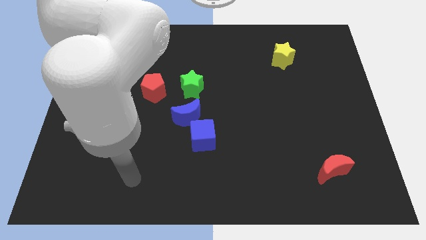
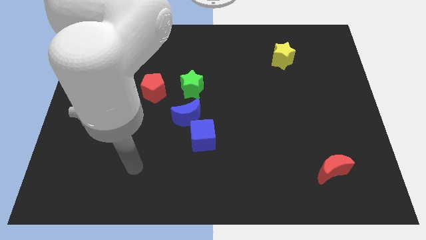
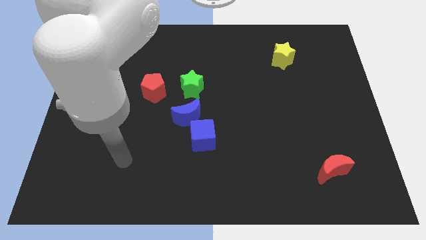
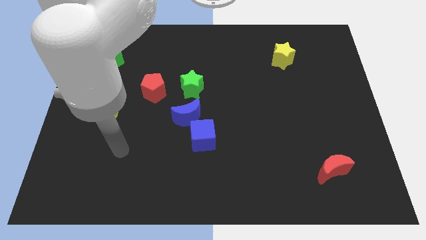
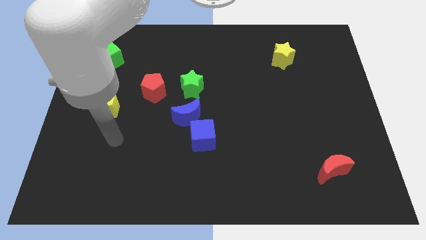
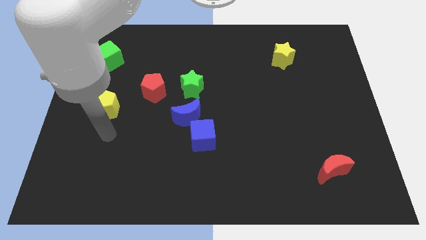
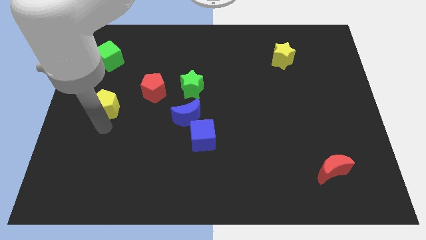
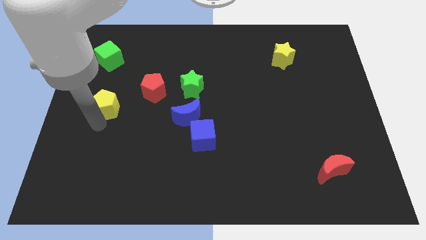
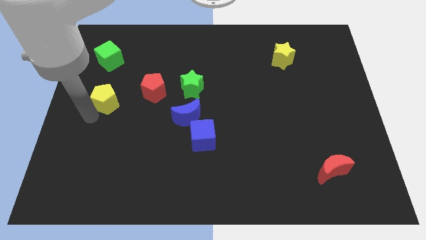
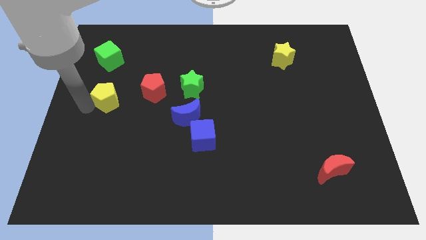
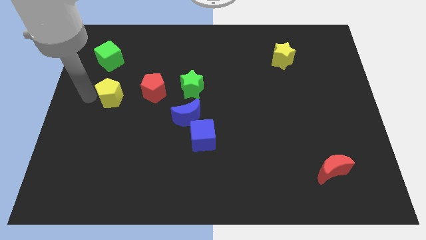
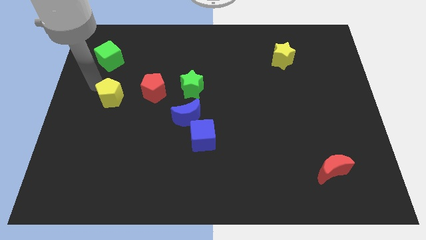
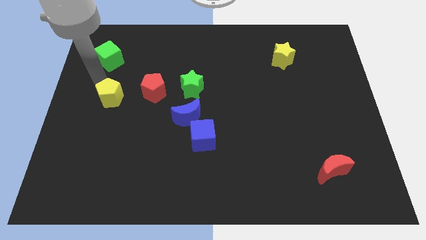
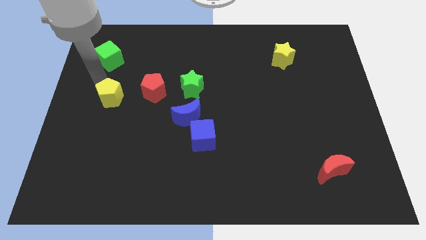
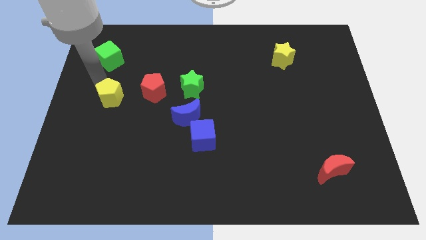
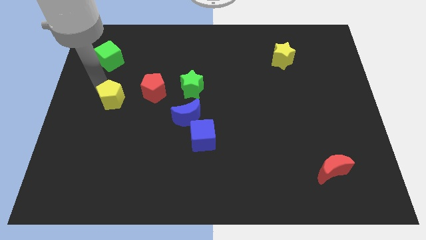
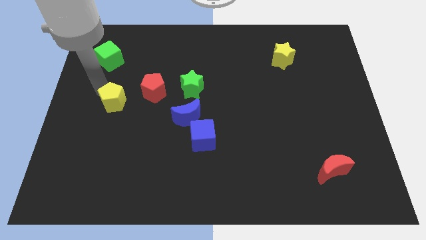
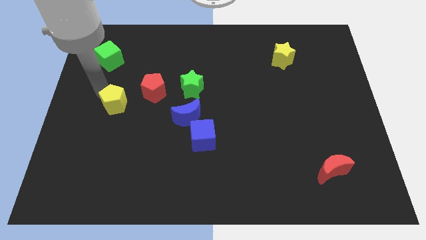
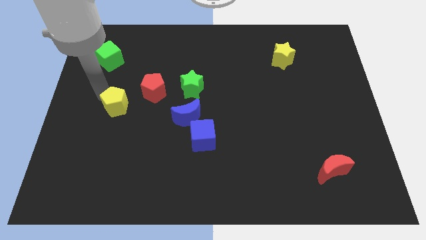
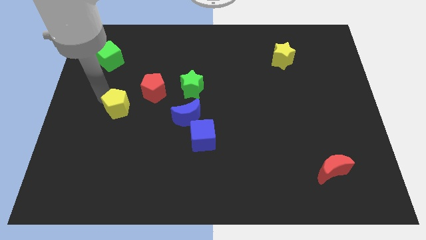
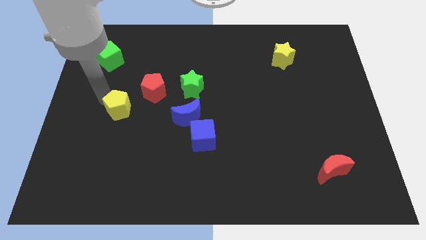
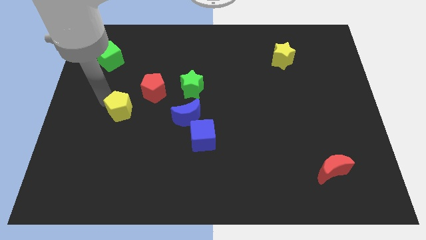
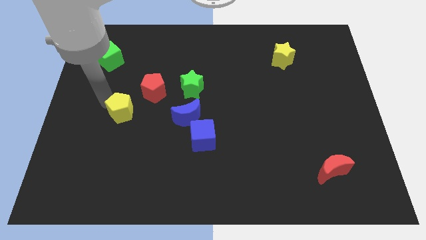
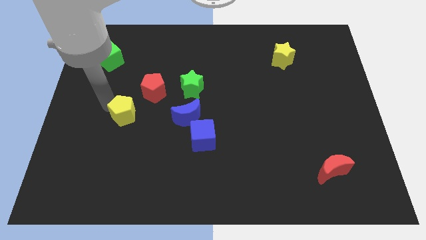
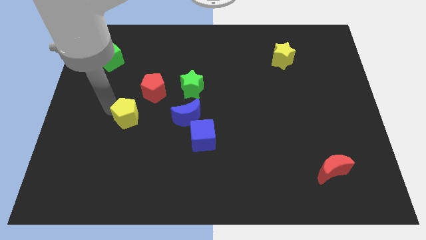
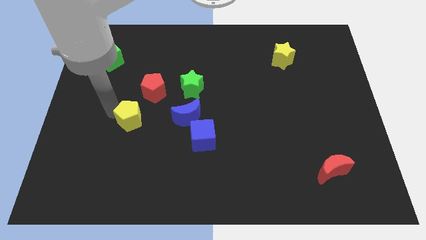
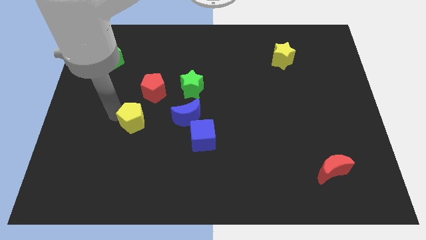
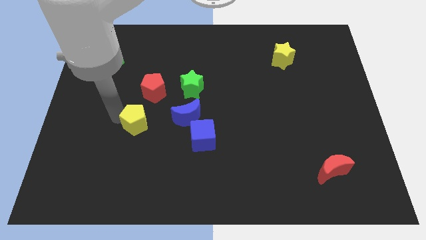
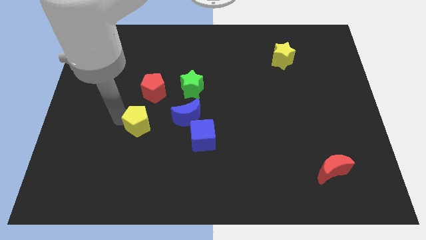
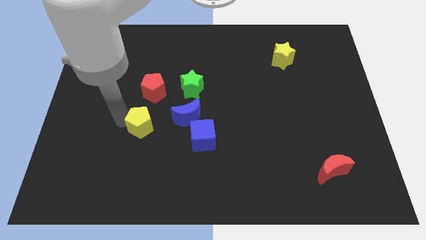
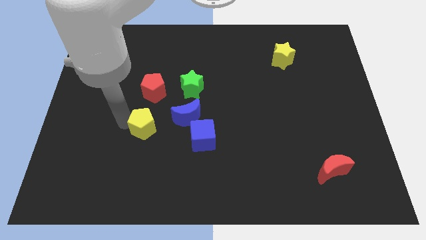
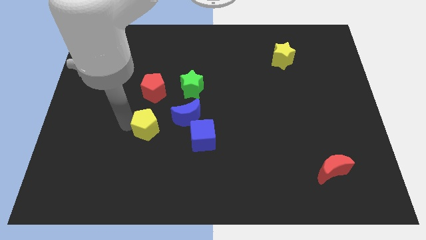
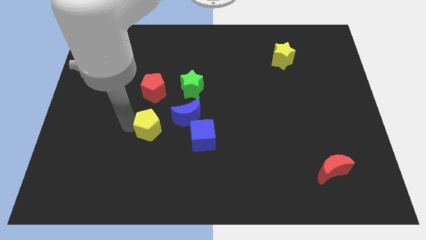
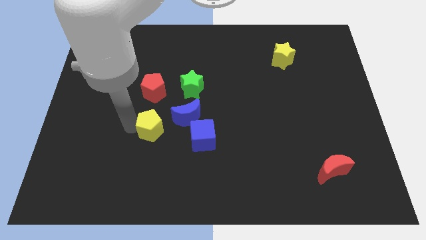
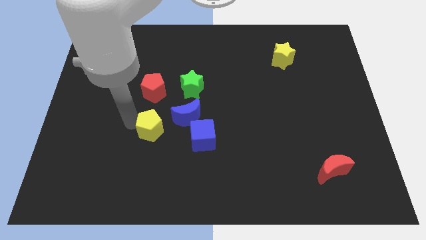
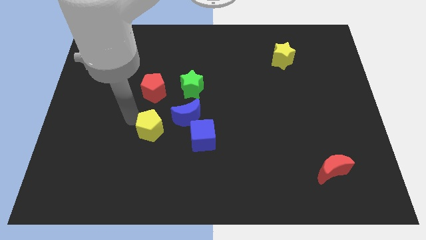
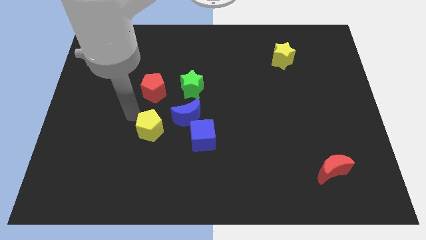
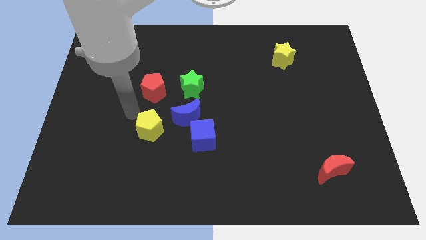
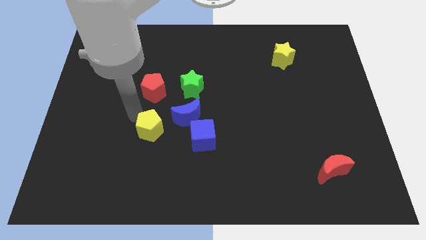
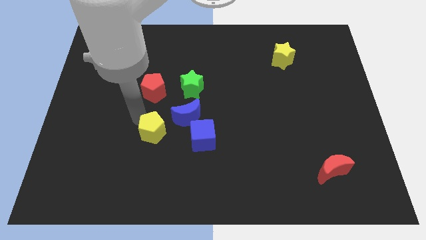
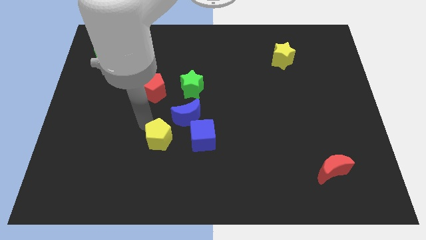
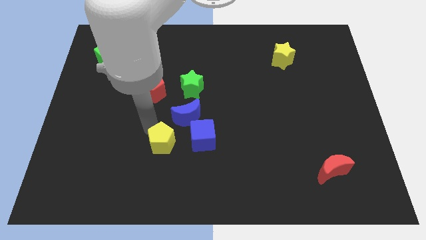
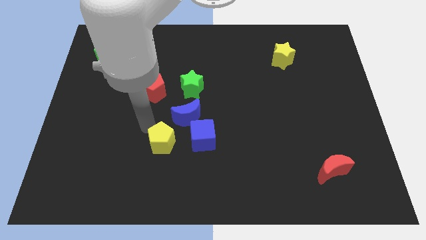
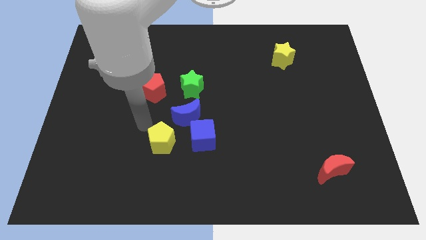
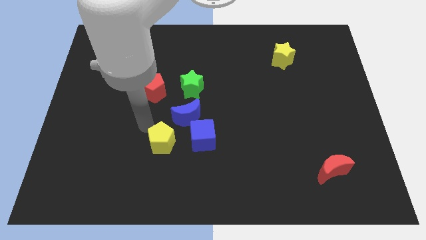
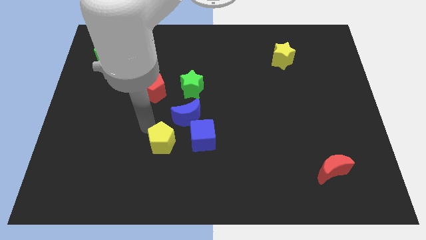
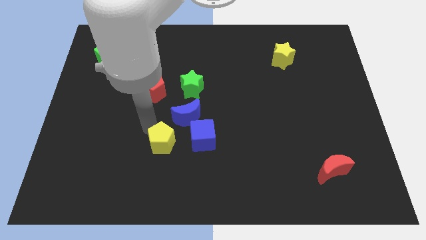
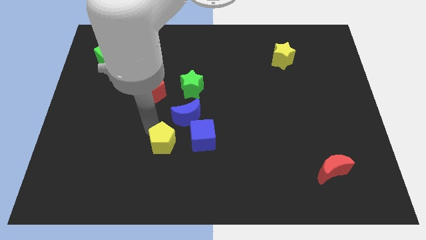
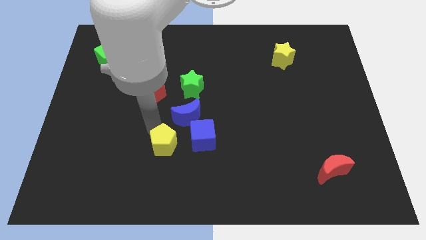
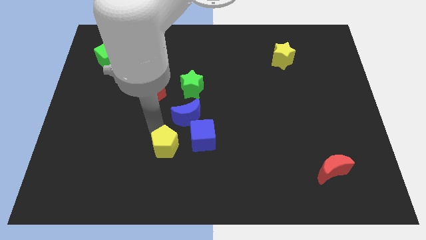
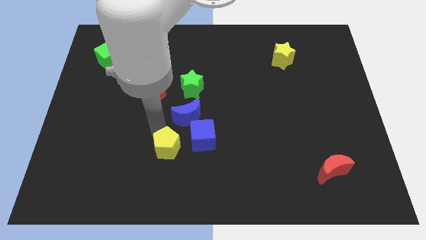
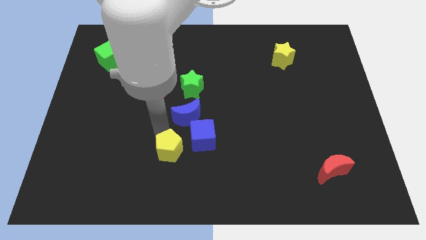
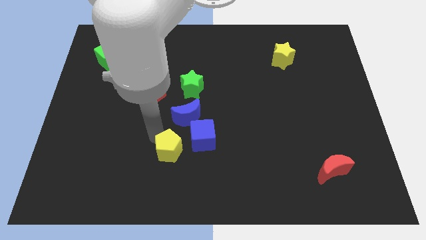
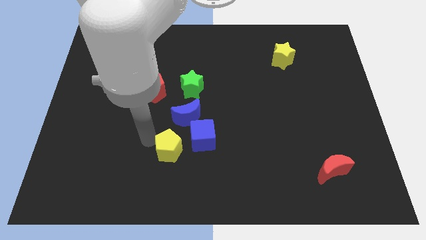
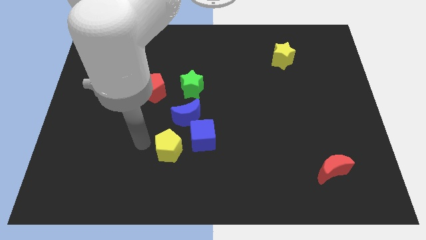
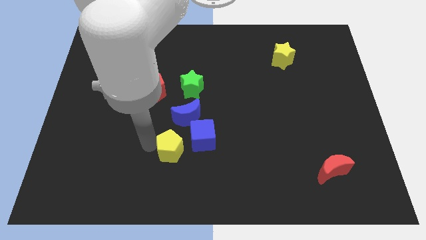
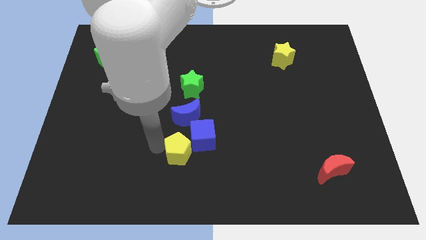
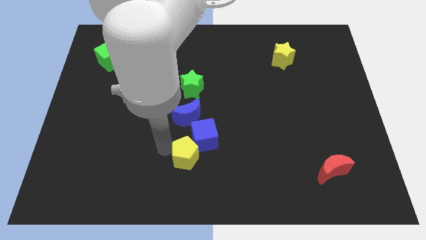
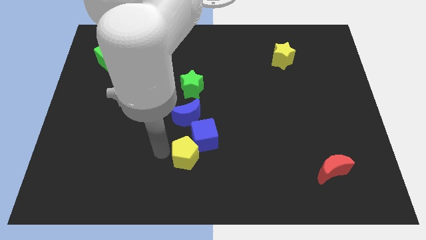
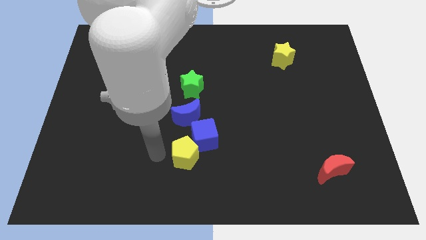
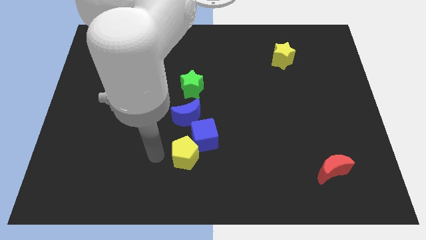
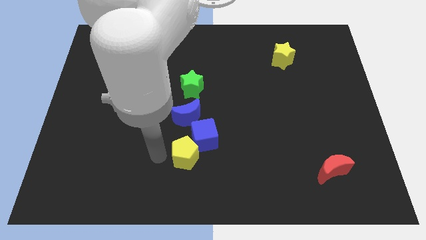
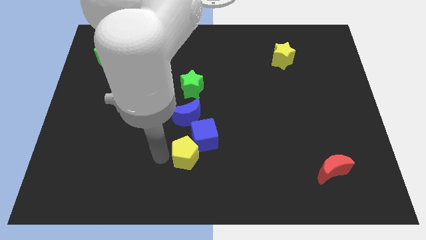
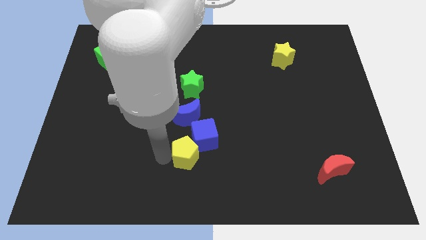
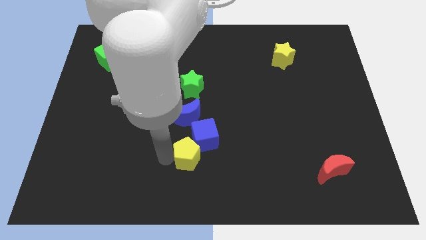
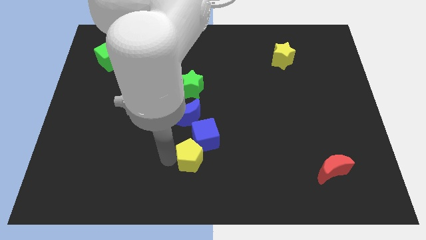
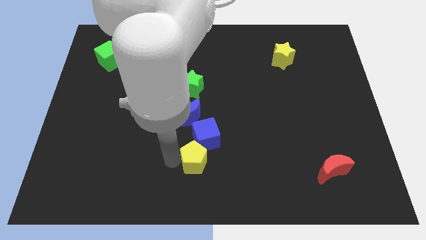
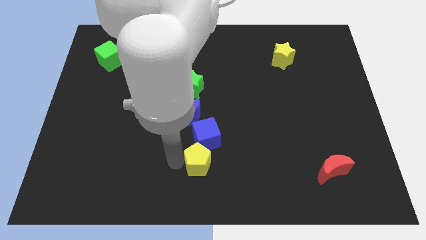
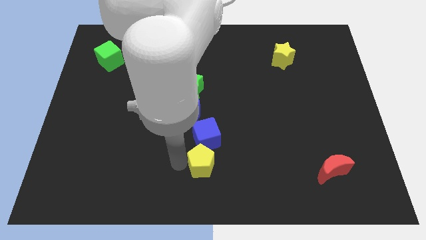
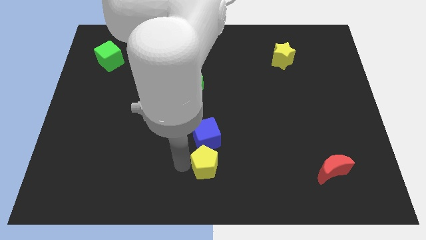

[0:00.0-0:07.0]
move the yellow pentagon to the bottom right of the blue cube
